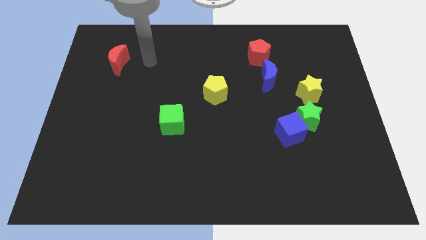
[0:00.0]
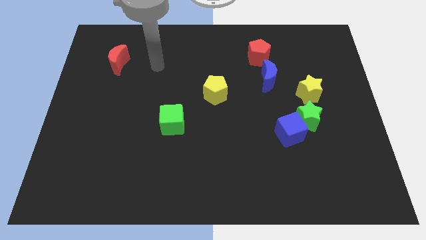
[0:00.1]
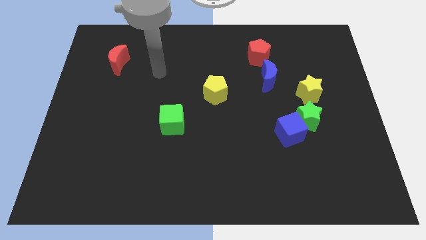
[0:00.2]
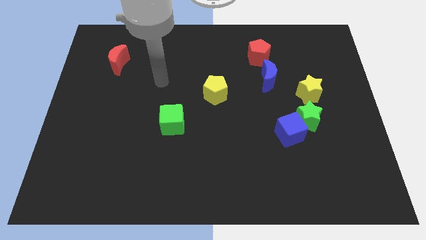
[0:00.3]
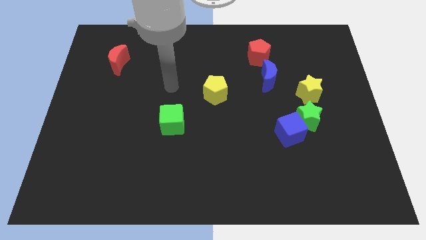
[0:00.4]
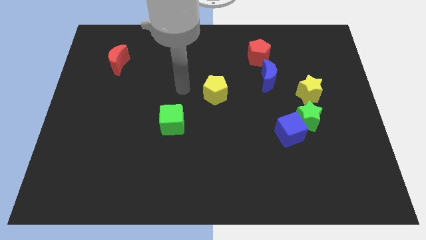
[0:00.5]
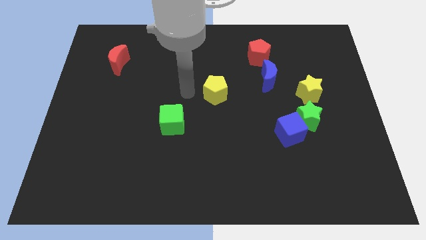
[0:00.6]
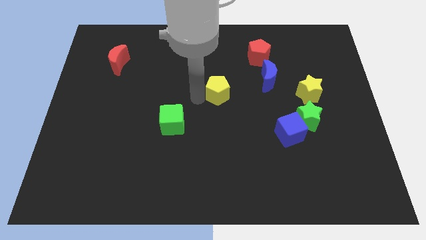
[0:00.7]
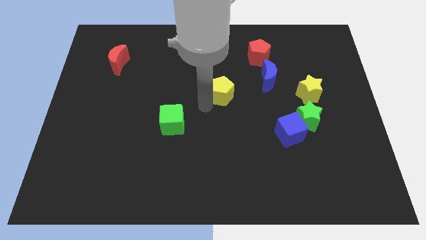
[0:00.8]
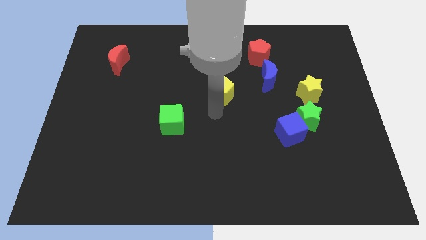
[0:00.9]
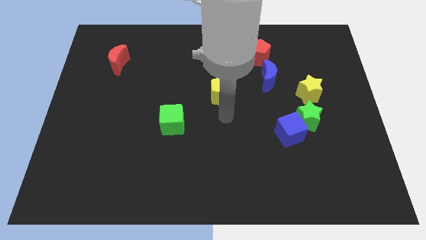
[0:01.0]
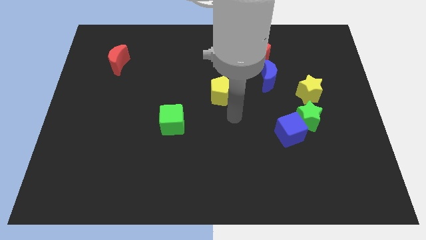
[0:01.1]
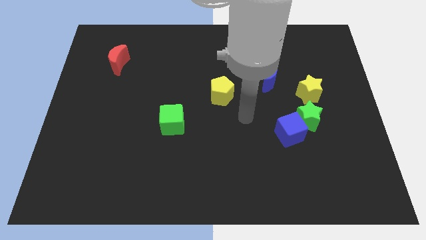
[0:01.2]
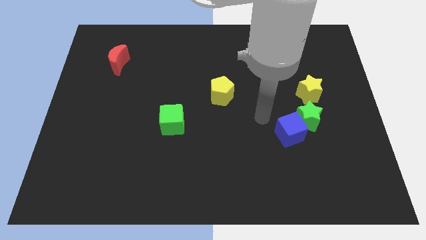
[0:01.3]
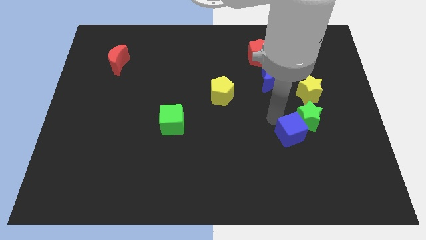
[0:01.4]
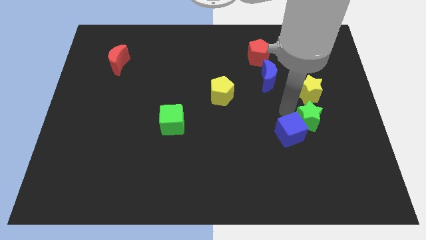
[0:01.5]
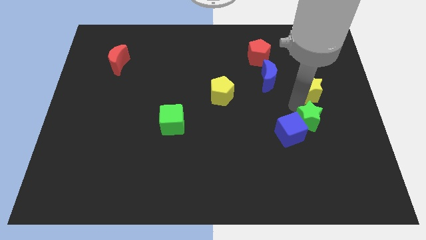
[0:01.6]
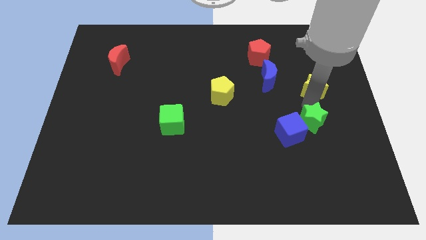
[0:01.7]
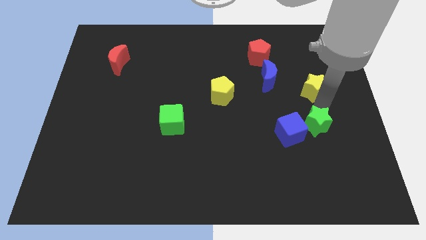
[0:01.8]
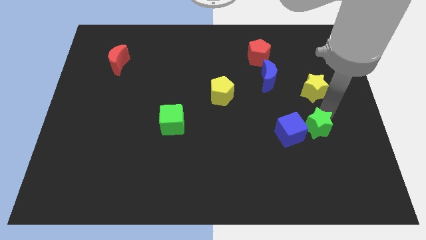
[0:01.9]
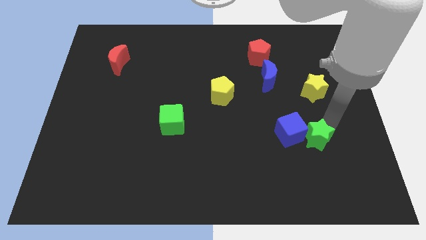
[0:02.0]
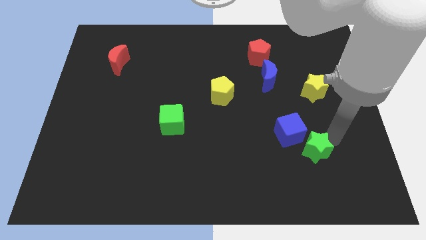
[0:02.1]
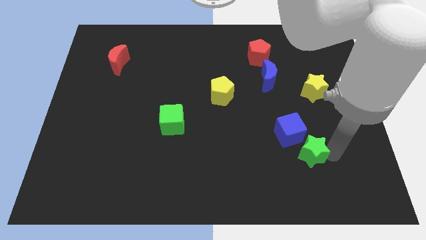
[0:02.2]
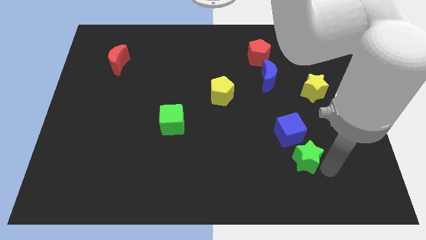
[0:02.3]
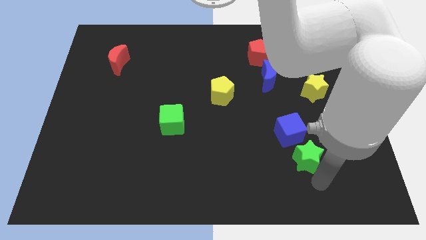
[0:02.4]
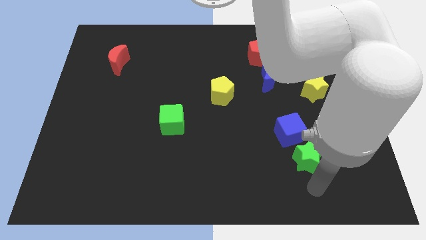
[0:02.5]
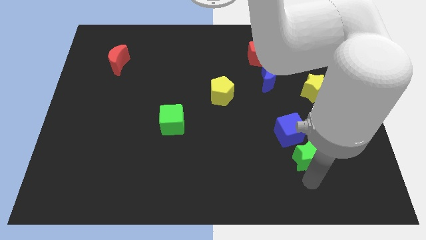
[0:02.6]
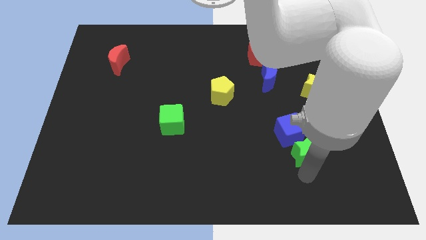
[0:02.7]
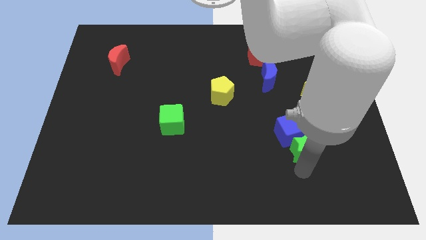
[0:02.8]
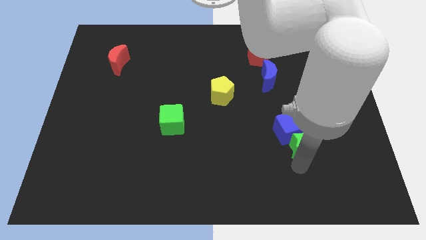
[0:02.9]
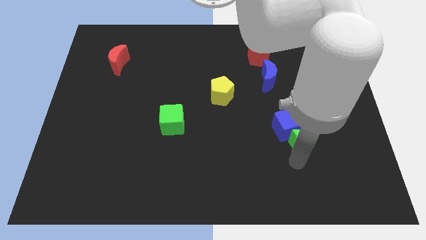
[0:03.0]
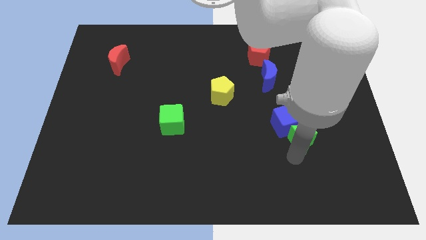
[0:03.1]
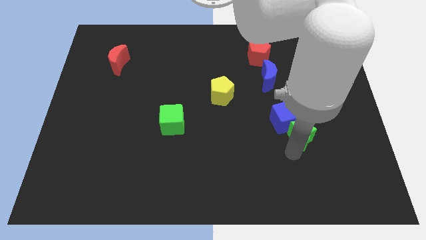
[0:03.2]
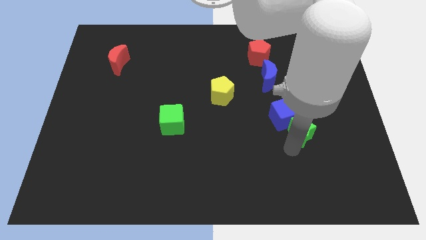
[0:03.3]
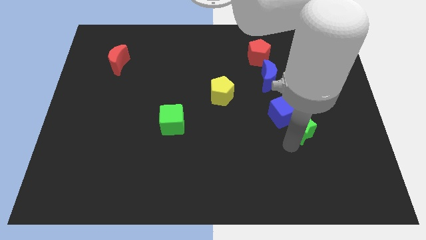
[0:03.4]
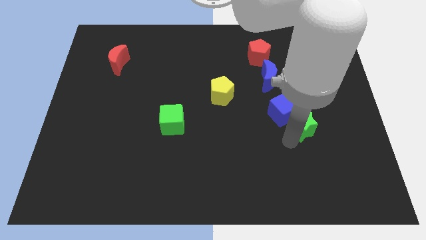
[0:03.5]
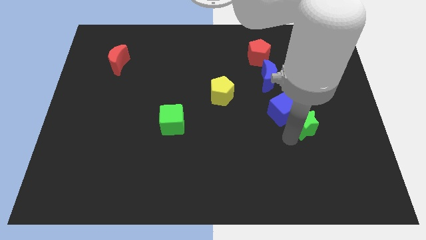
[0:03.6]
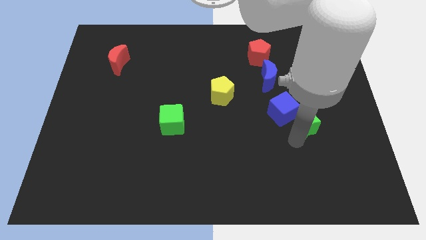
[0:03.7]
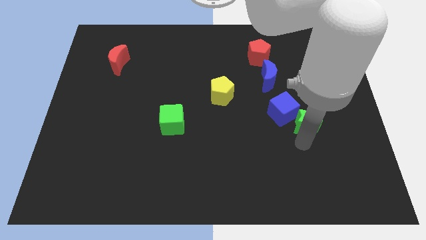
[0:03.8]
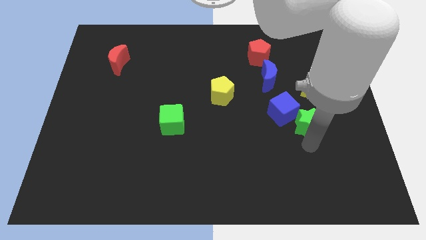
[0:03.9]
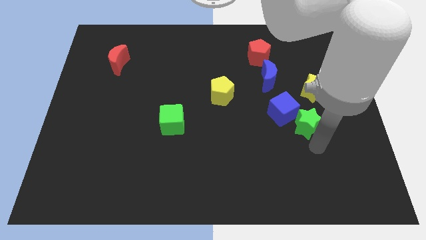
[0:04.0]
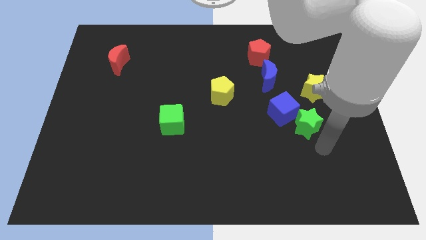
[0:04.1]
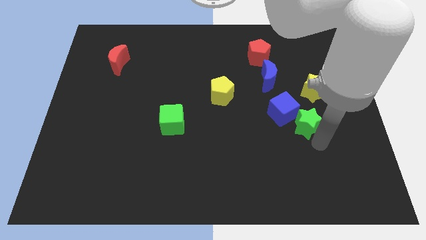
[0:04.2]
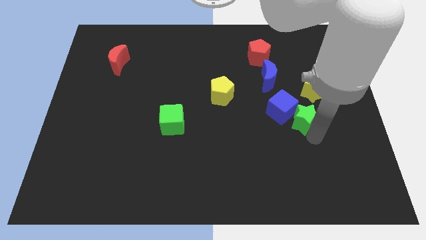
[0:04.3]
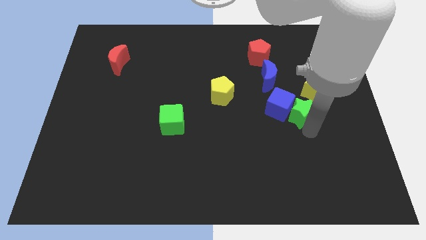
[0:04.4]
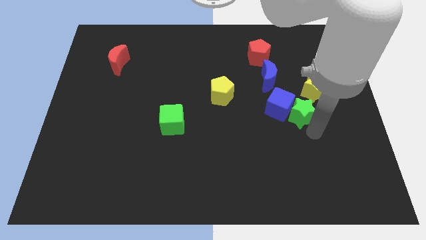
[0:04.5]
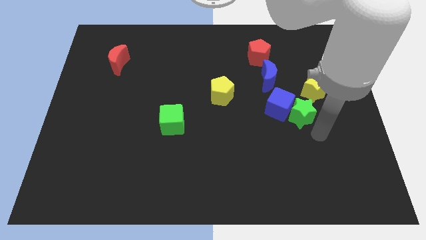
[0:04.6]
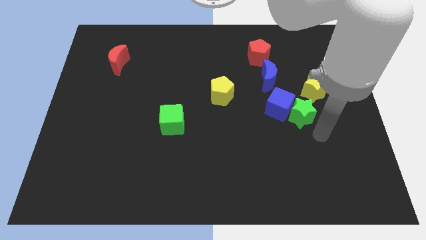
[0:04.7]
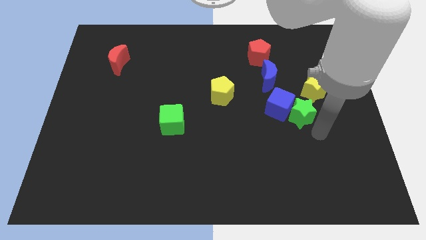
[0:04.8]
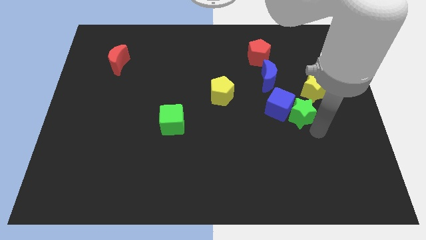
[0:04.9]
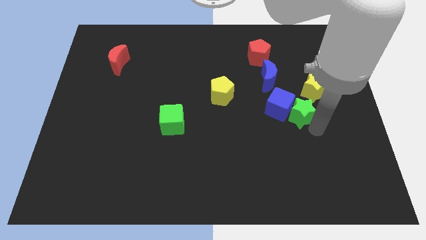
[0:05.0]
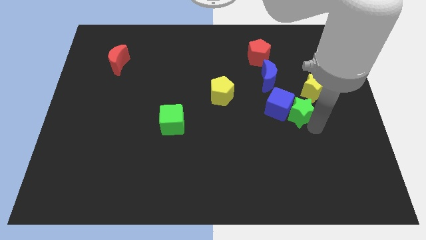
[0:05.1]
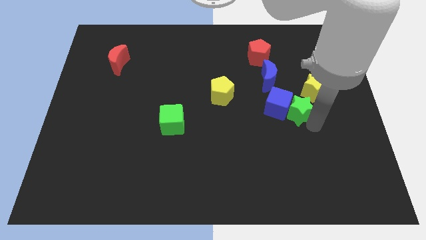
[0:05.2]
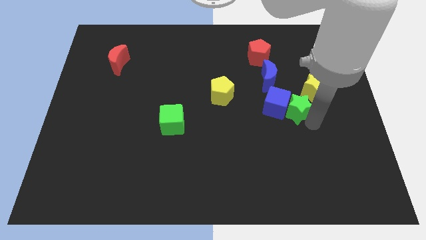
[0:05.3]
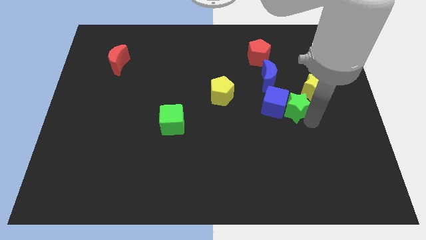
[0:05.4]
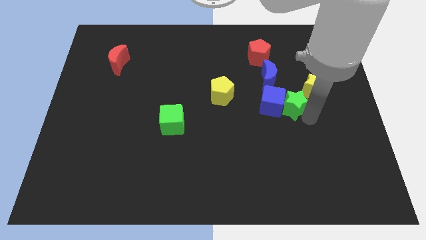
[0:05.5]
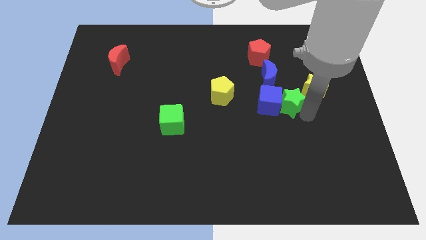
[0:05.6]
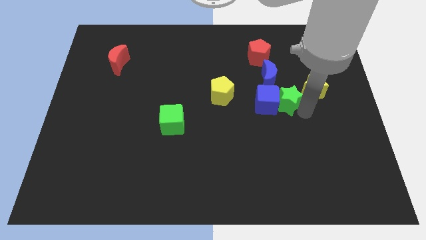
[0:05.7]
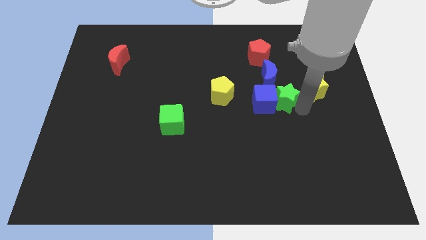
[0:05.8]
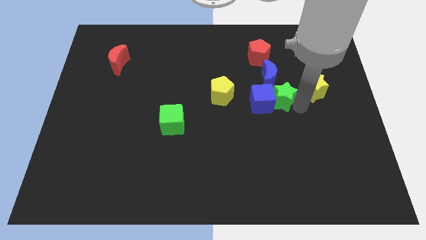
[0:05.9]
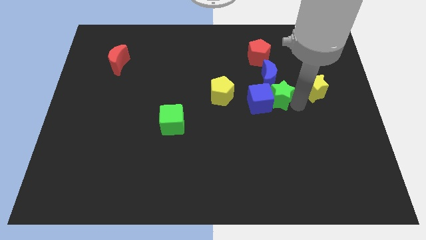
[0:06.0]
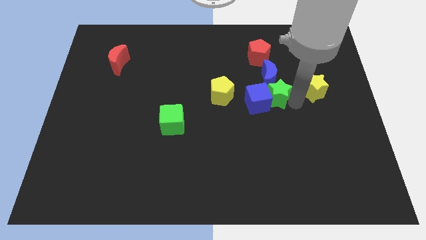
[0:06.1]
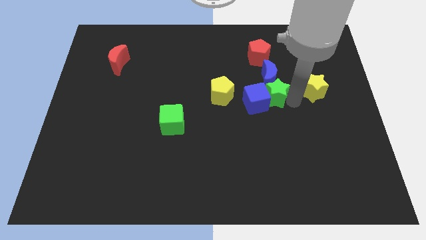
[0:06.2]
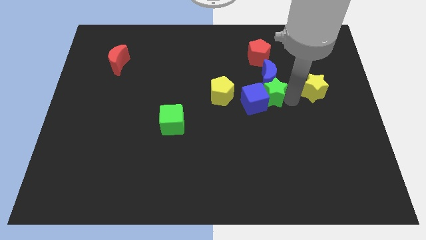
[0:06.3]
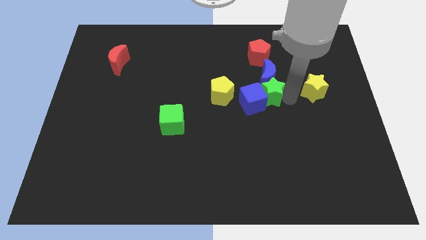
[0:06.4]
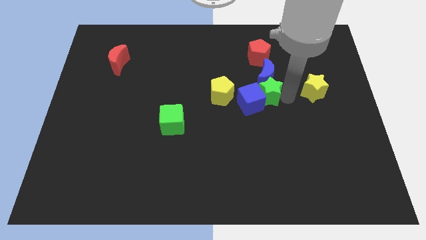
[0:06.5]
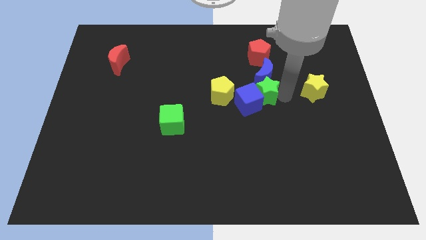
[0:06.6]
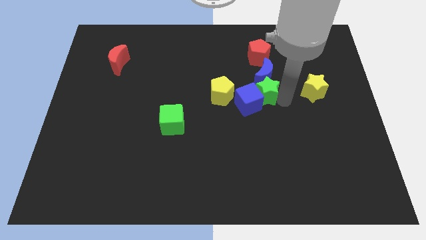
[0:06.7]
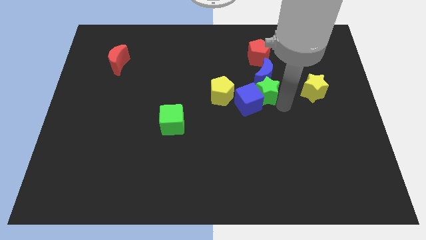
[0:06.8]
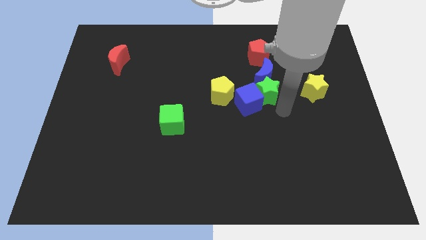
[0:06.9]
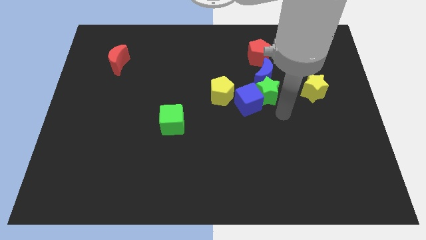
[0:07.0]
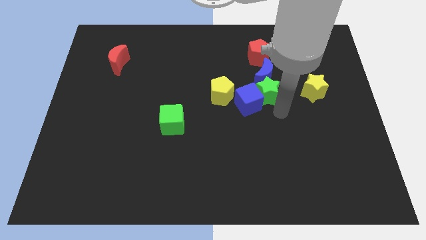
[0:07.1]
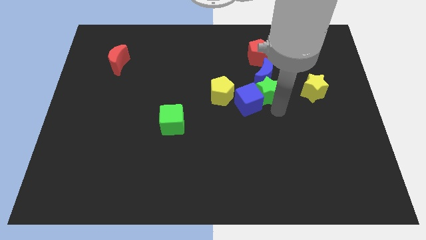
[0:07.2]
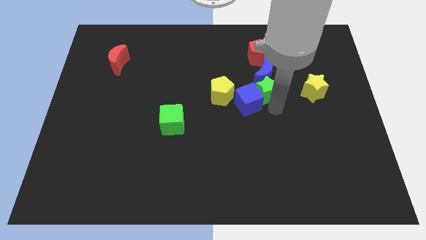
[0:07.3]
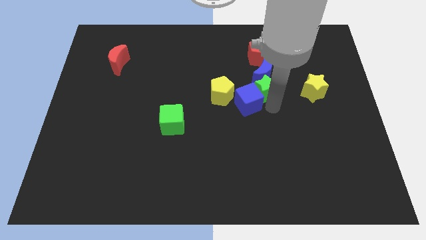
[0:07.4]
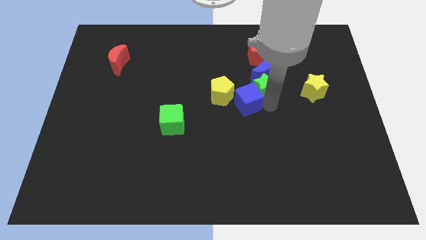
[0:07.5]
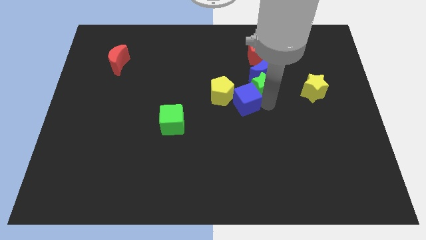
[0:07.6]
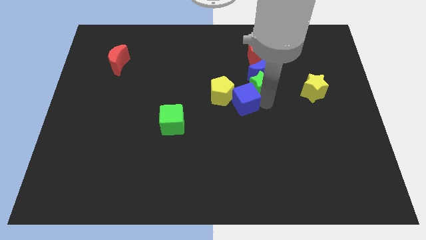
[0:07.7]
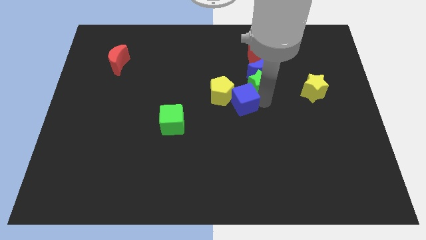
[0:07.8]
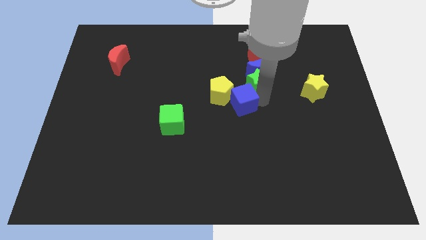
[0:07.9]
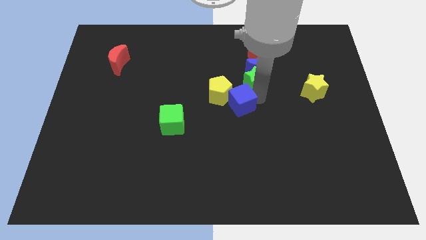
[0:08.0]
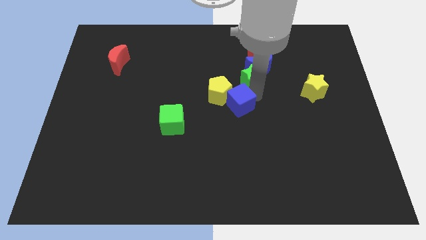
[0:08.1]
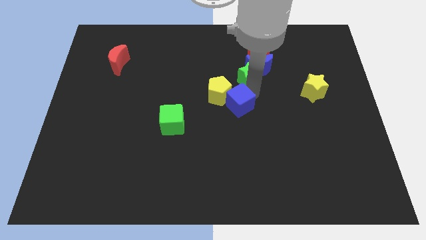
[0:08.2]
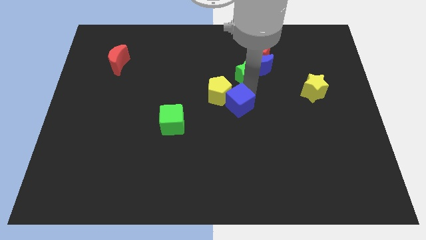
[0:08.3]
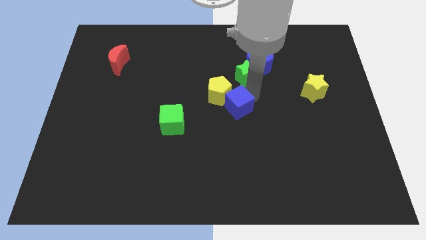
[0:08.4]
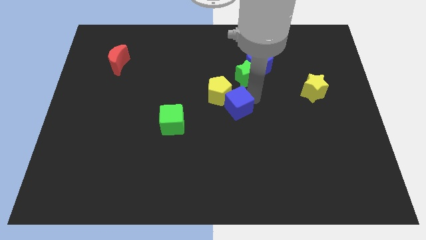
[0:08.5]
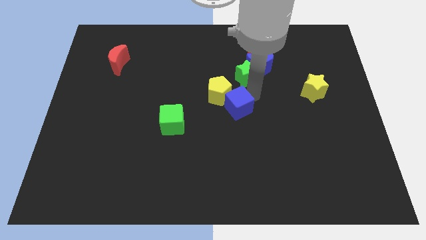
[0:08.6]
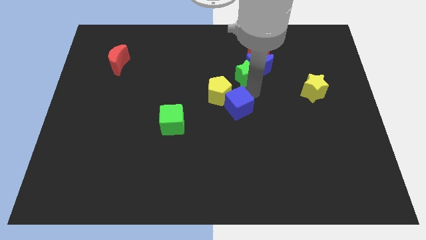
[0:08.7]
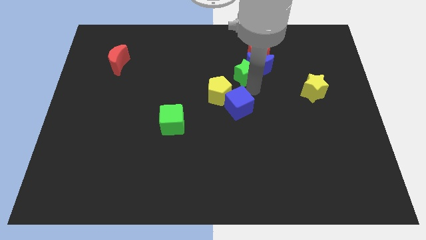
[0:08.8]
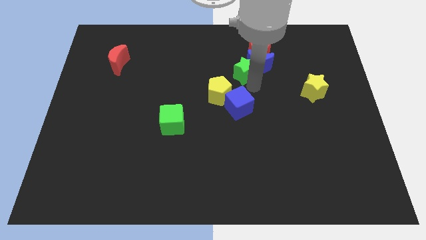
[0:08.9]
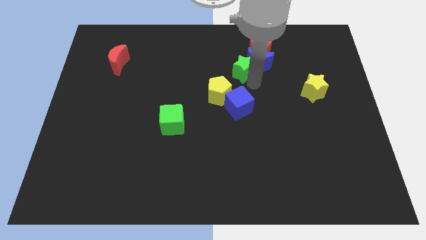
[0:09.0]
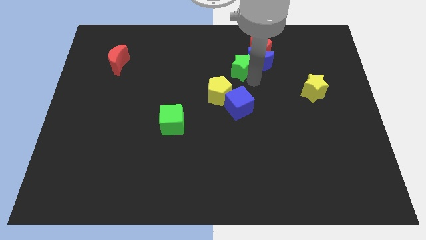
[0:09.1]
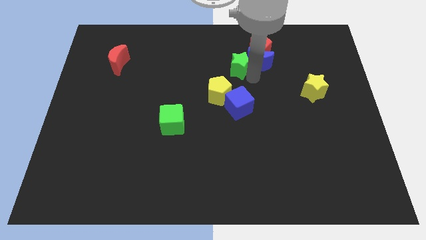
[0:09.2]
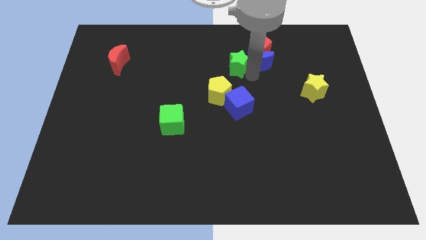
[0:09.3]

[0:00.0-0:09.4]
slide the green star diagonally up and to the left of the blue moon
